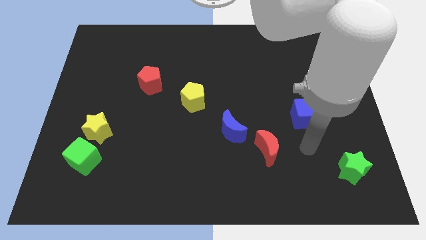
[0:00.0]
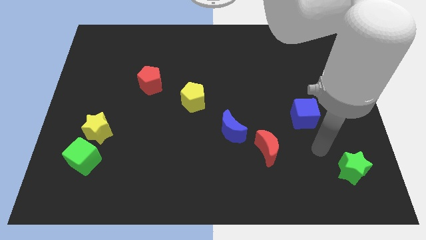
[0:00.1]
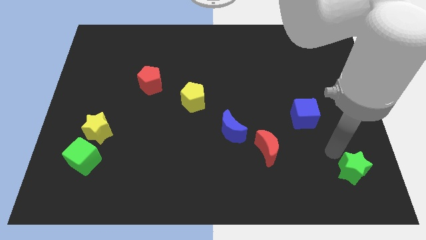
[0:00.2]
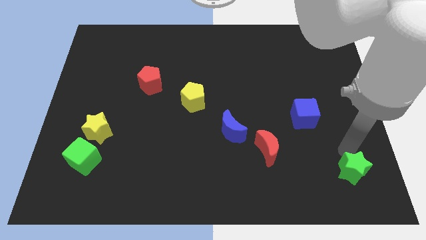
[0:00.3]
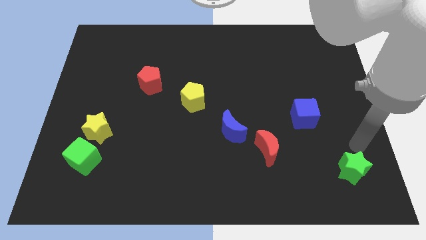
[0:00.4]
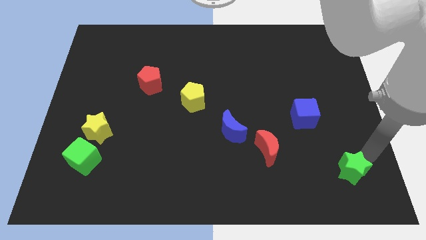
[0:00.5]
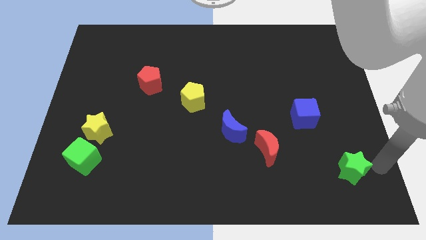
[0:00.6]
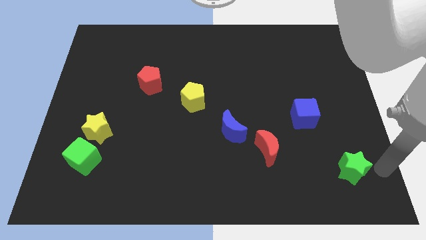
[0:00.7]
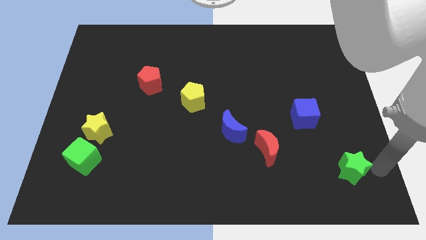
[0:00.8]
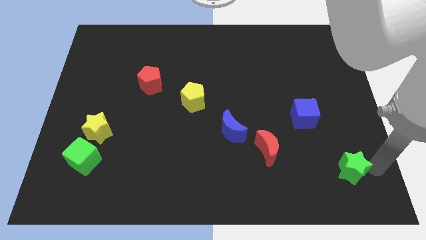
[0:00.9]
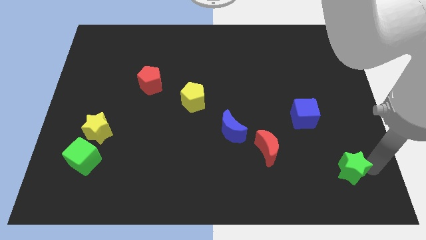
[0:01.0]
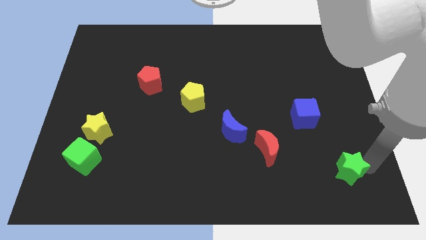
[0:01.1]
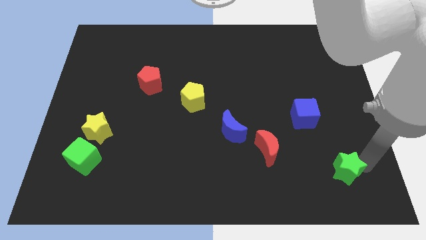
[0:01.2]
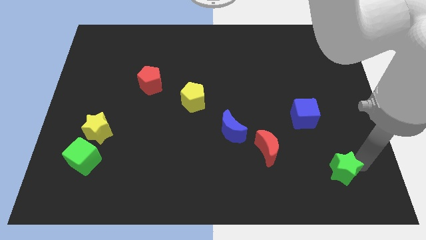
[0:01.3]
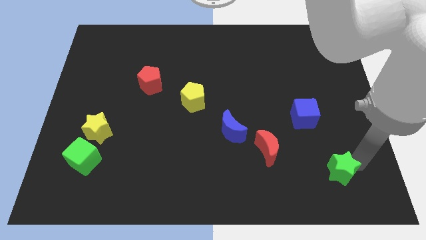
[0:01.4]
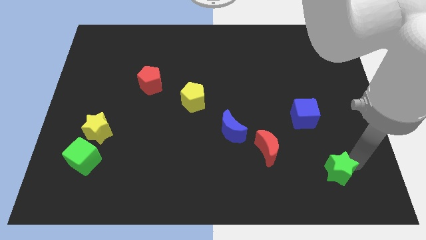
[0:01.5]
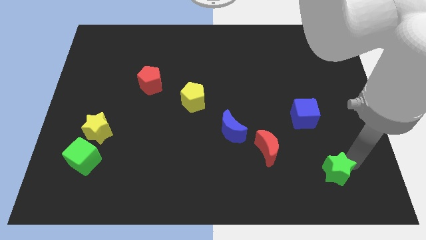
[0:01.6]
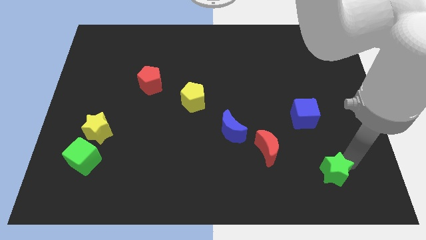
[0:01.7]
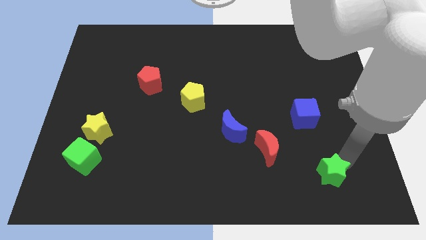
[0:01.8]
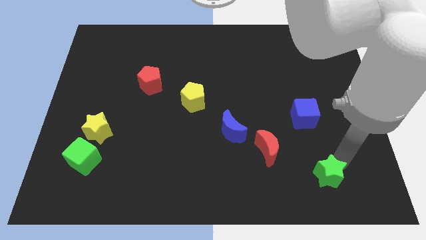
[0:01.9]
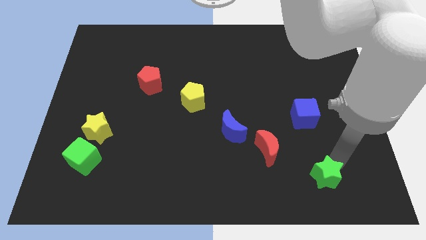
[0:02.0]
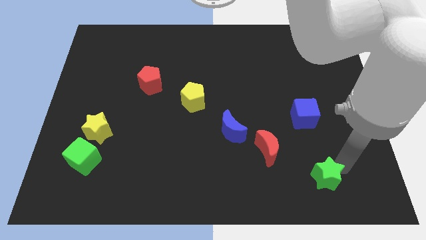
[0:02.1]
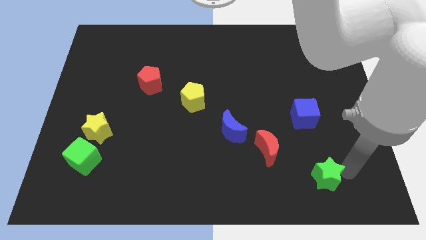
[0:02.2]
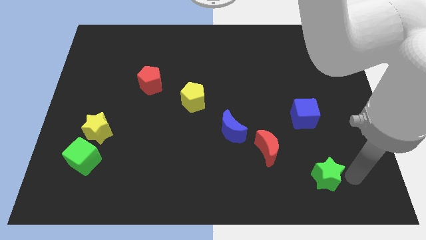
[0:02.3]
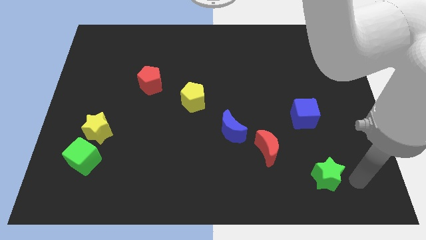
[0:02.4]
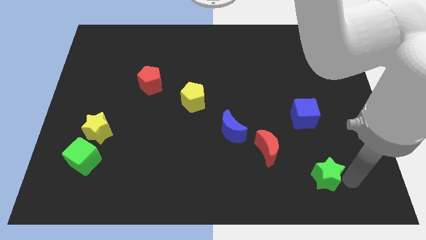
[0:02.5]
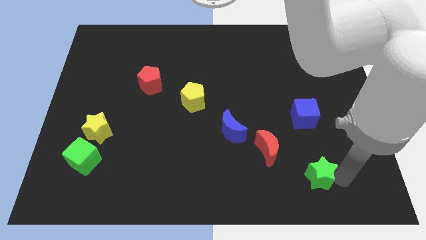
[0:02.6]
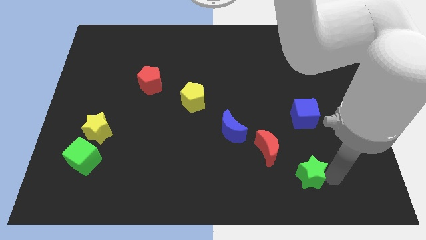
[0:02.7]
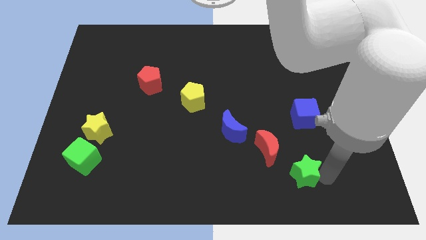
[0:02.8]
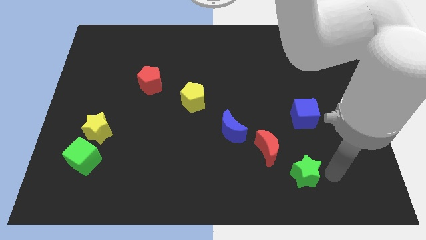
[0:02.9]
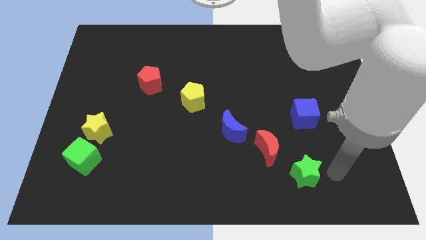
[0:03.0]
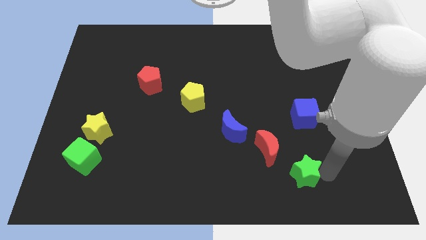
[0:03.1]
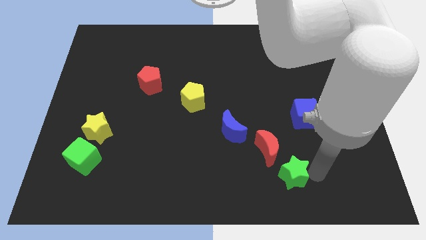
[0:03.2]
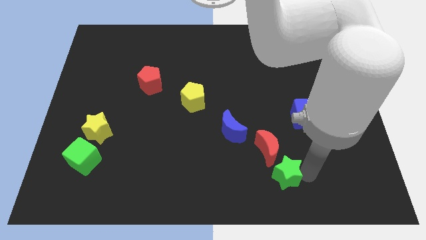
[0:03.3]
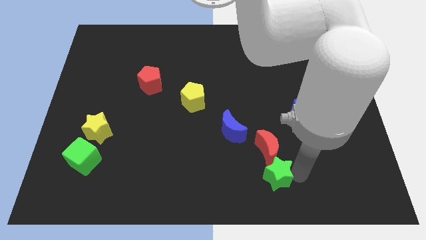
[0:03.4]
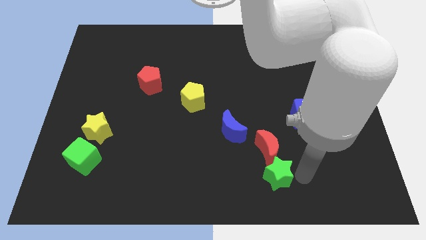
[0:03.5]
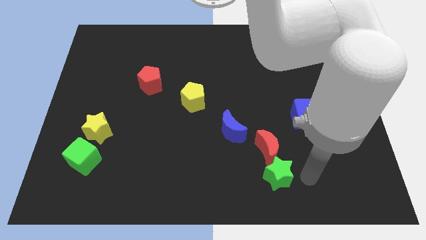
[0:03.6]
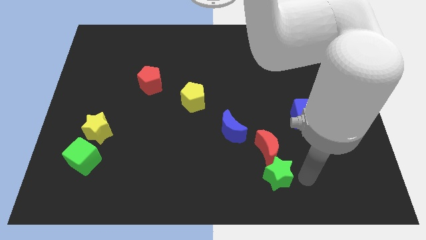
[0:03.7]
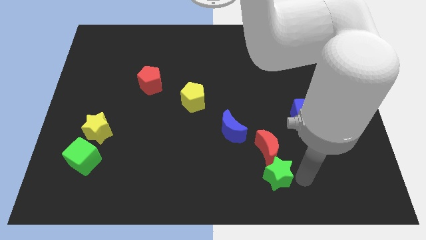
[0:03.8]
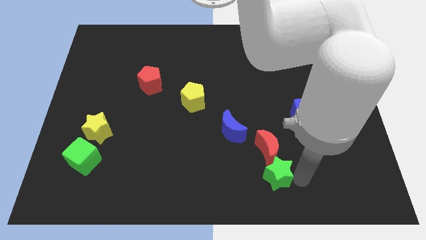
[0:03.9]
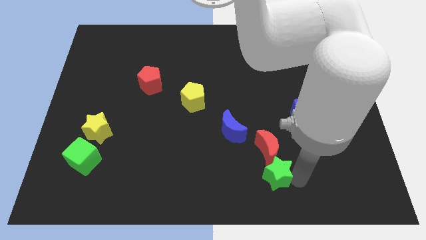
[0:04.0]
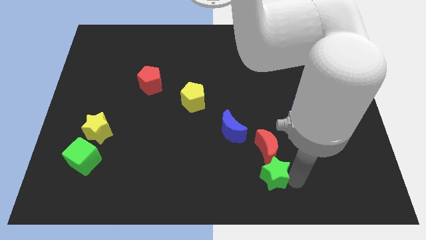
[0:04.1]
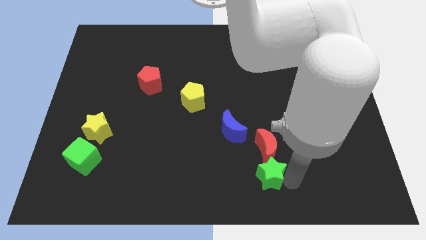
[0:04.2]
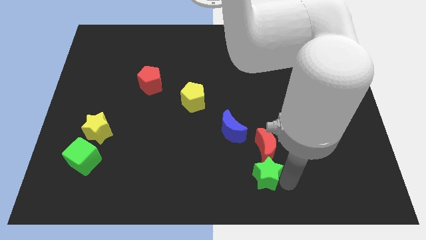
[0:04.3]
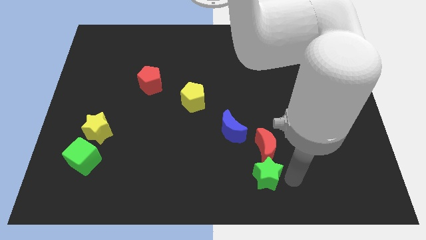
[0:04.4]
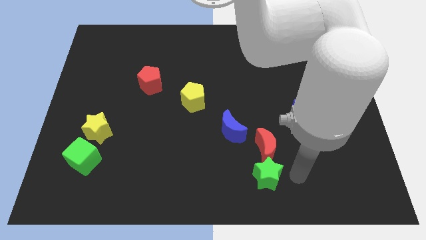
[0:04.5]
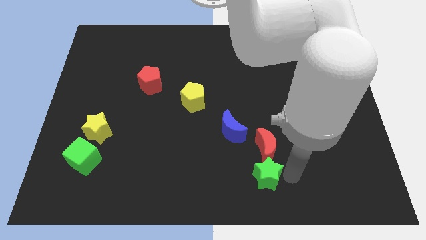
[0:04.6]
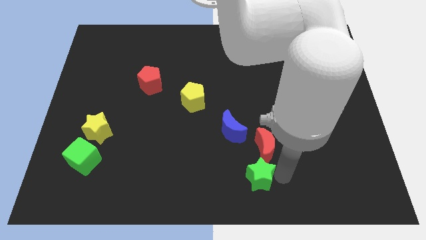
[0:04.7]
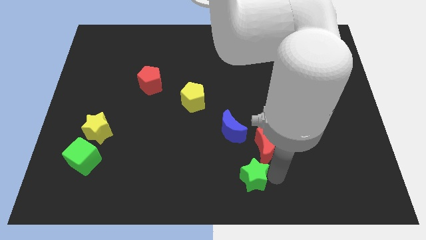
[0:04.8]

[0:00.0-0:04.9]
move the green star left

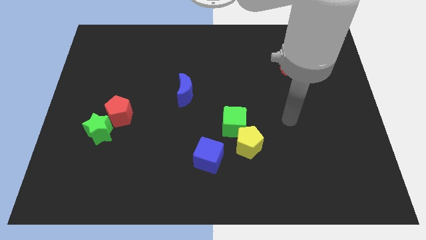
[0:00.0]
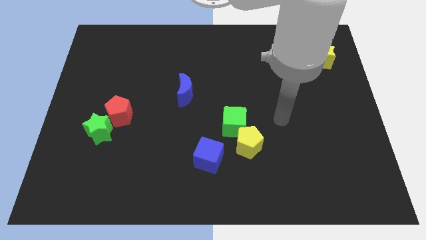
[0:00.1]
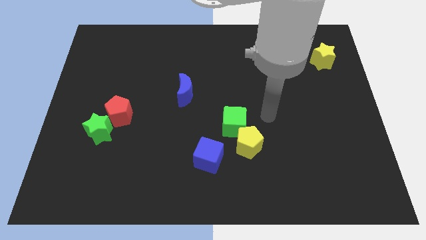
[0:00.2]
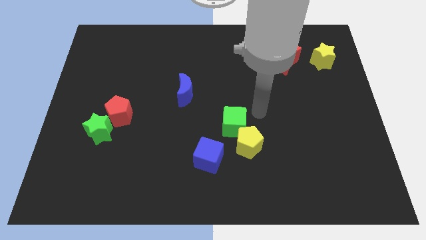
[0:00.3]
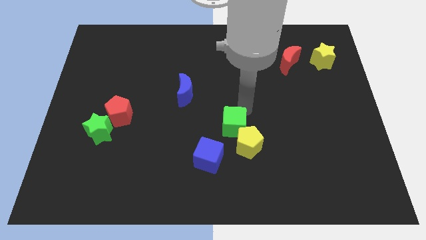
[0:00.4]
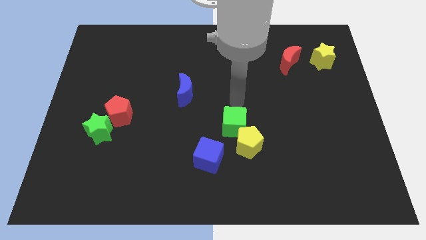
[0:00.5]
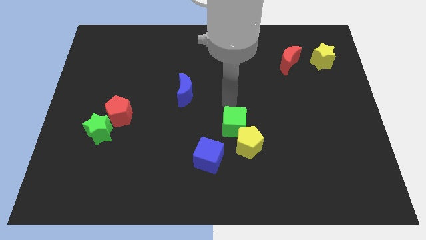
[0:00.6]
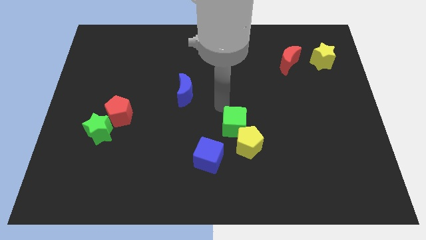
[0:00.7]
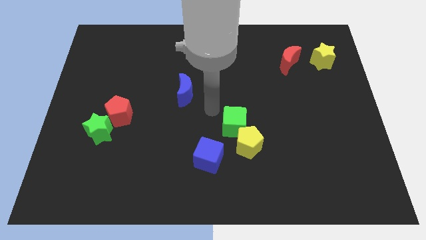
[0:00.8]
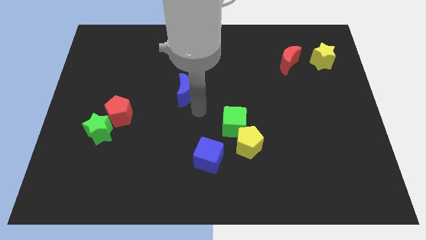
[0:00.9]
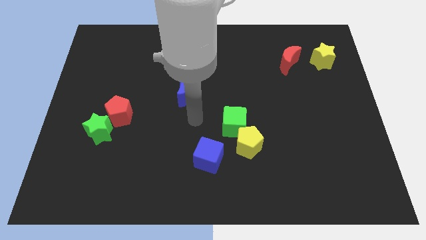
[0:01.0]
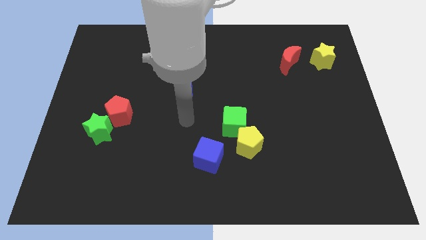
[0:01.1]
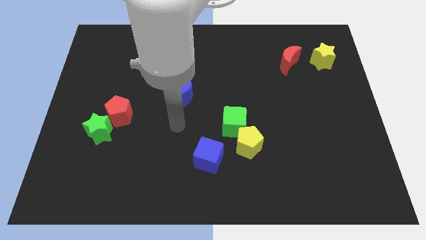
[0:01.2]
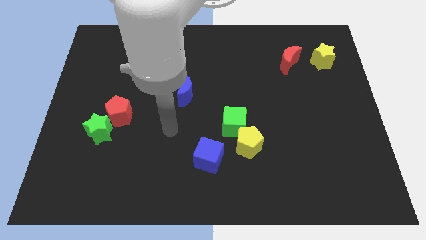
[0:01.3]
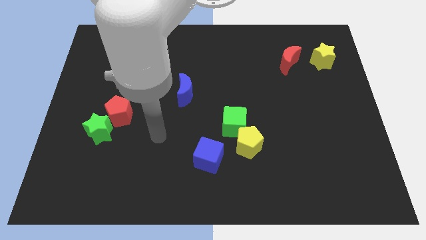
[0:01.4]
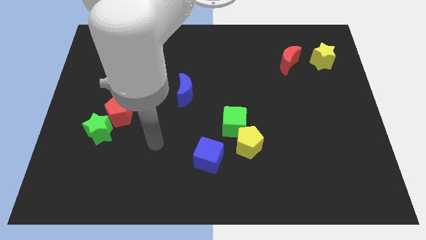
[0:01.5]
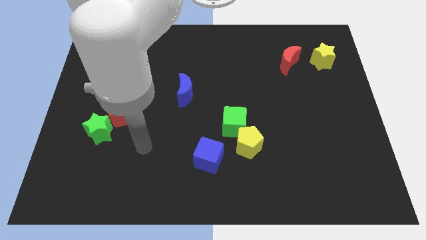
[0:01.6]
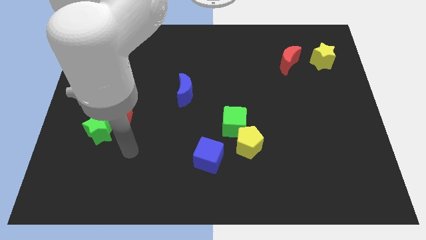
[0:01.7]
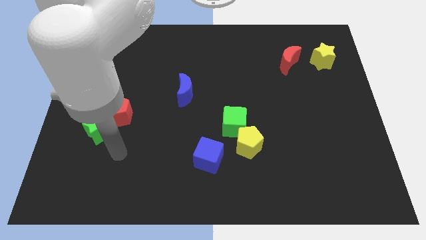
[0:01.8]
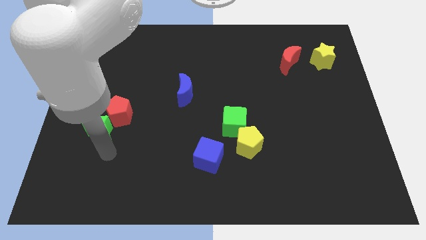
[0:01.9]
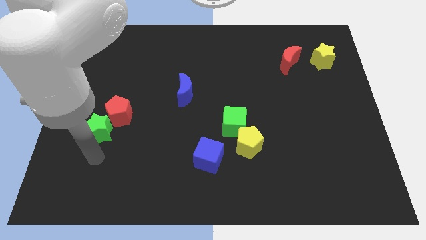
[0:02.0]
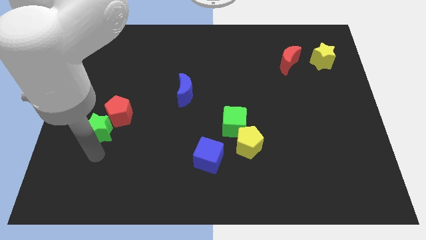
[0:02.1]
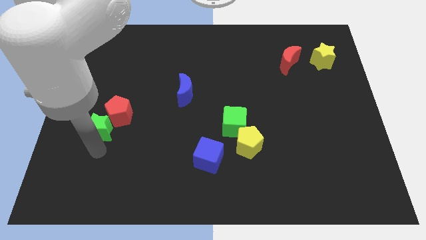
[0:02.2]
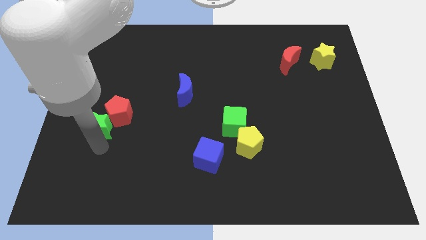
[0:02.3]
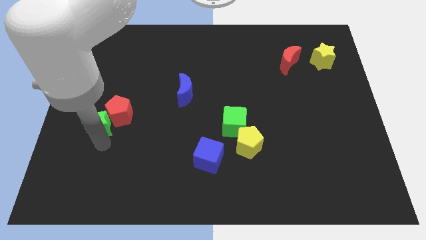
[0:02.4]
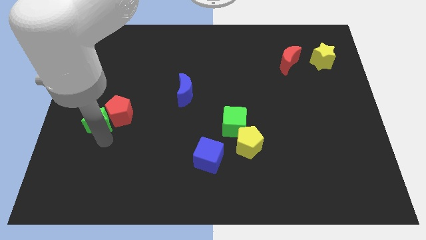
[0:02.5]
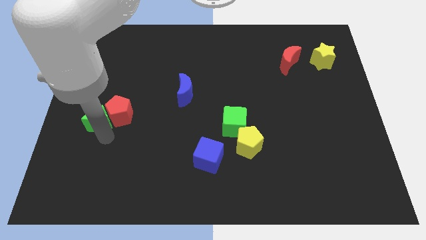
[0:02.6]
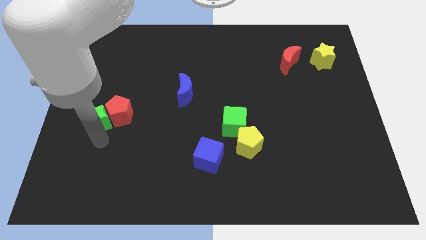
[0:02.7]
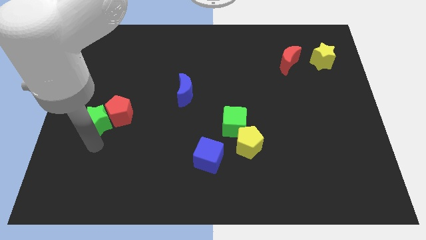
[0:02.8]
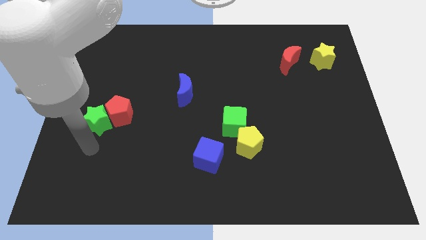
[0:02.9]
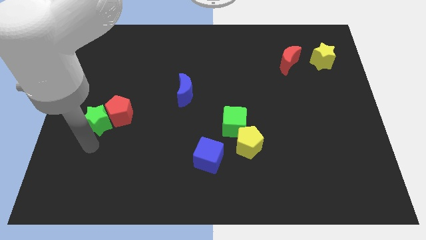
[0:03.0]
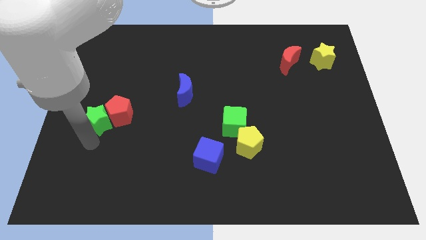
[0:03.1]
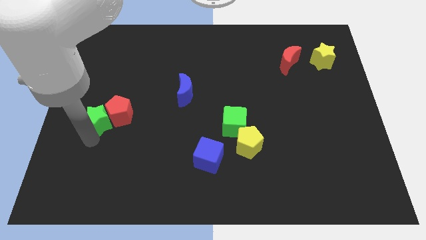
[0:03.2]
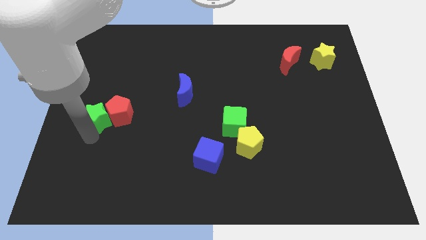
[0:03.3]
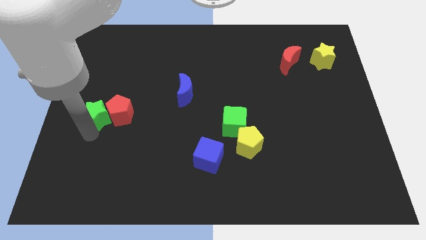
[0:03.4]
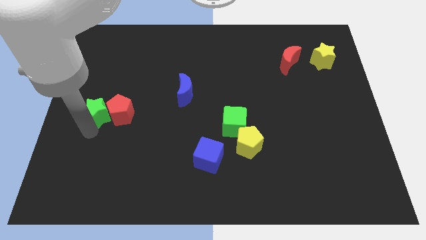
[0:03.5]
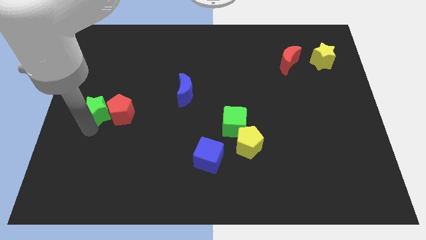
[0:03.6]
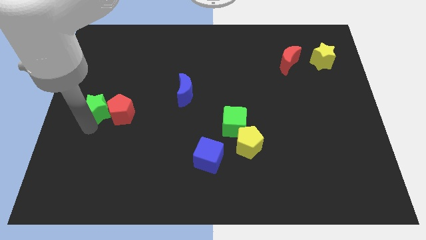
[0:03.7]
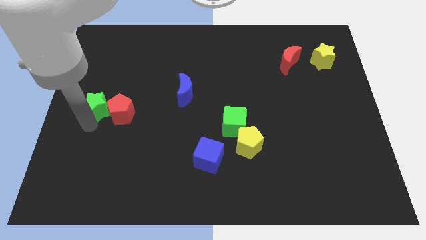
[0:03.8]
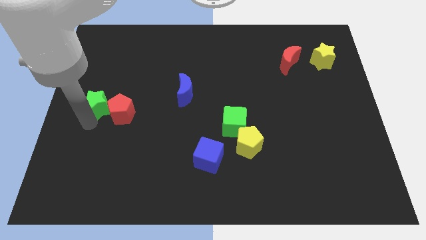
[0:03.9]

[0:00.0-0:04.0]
push the green star up a little
